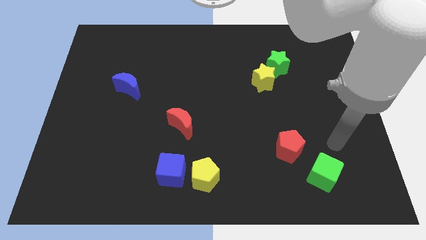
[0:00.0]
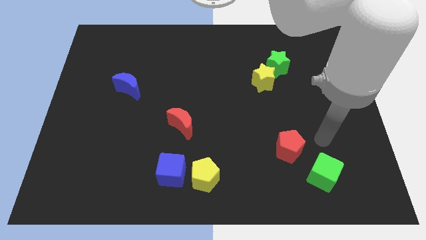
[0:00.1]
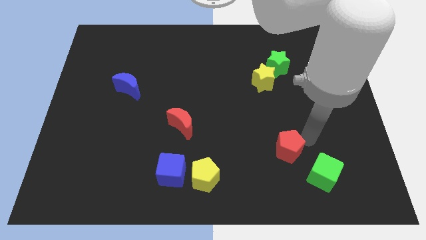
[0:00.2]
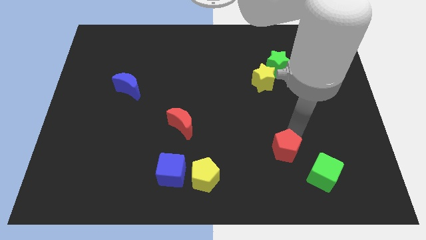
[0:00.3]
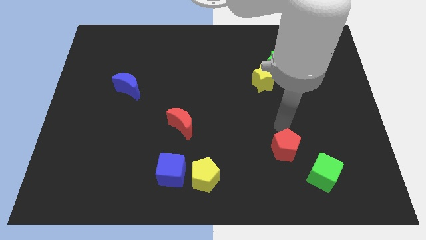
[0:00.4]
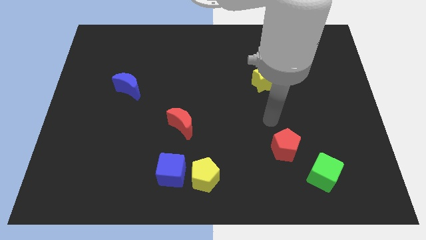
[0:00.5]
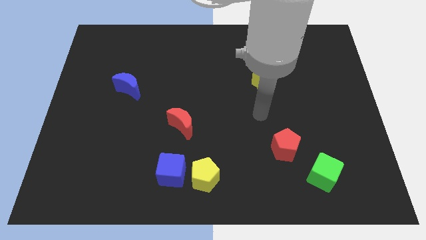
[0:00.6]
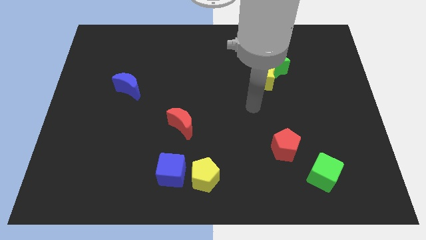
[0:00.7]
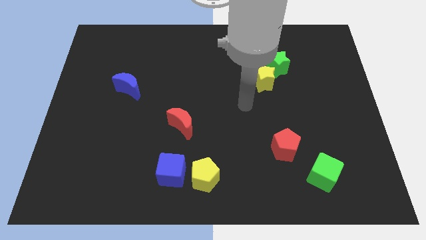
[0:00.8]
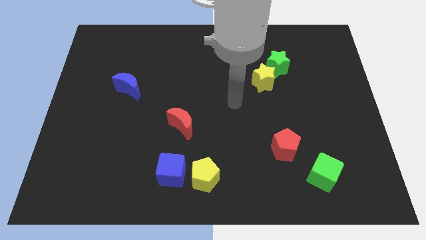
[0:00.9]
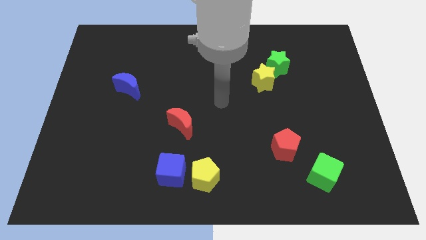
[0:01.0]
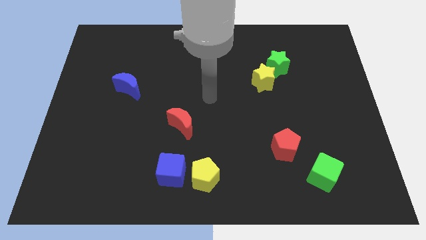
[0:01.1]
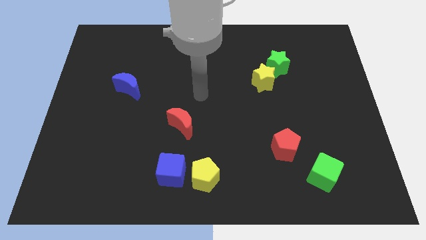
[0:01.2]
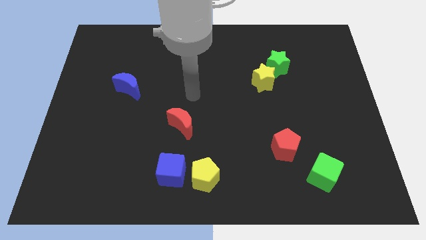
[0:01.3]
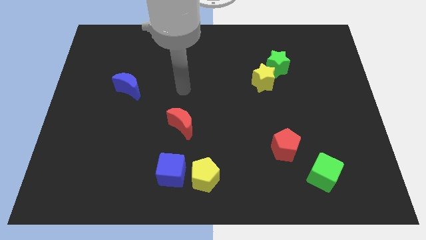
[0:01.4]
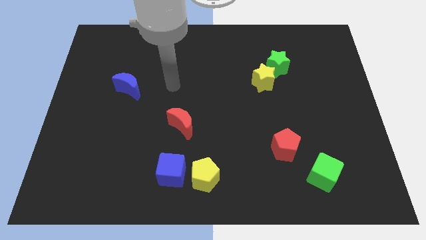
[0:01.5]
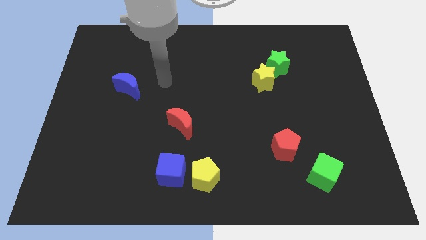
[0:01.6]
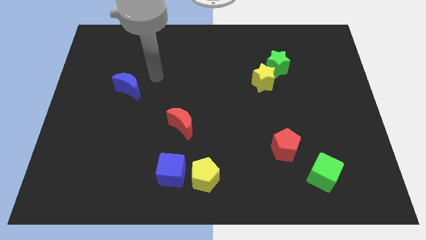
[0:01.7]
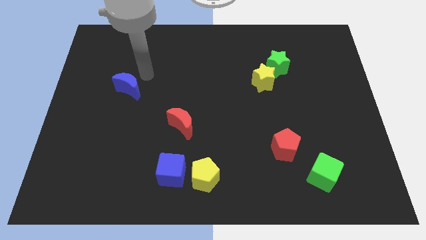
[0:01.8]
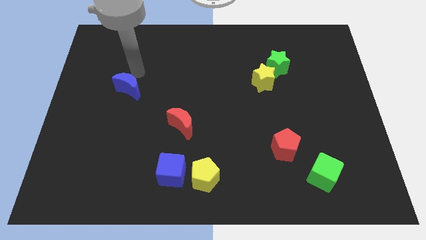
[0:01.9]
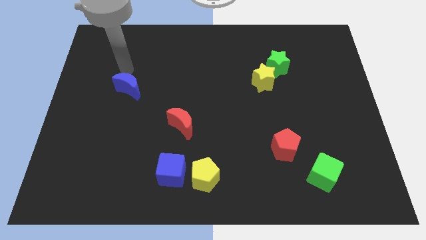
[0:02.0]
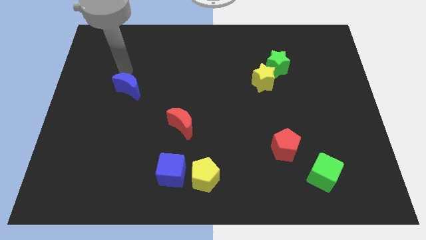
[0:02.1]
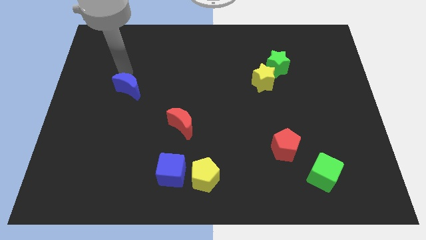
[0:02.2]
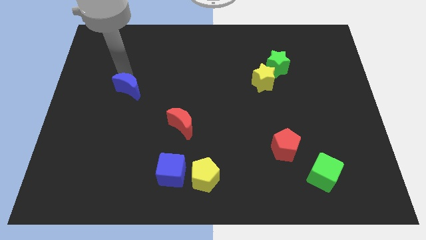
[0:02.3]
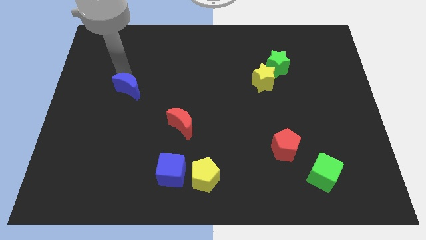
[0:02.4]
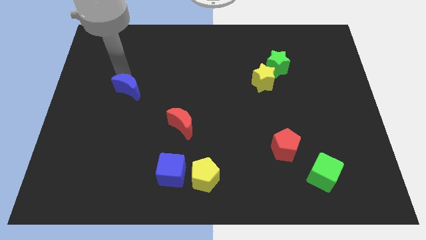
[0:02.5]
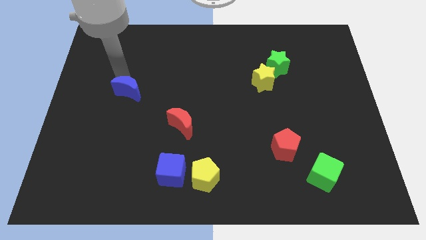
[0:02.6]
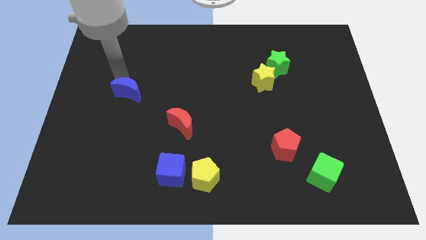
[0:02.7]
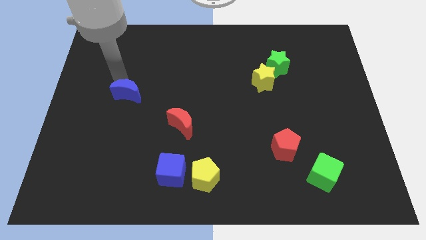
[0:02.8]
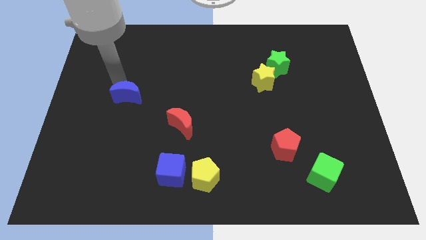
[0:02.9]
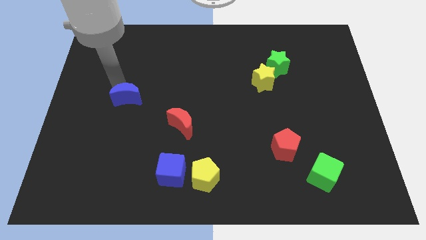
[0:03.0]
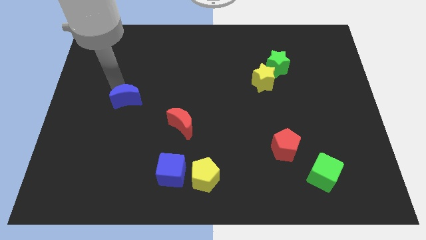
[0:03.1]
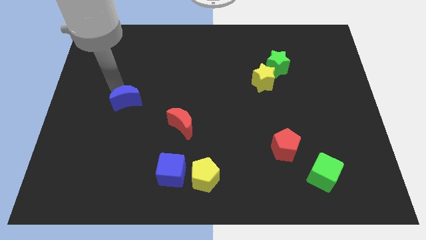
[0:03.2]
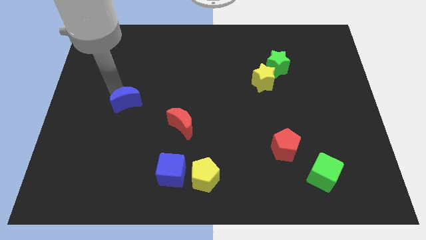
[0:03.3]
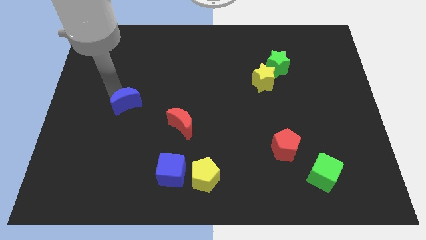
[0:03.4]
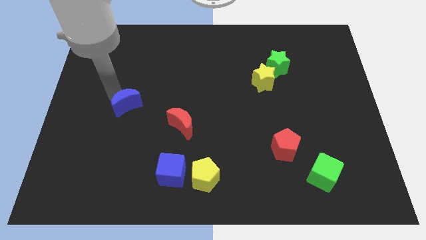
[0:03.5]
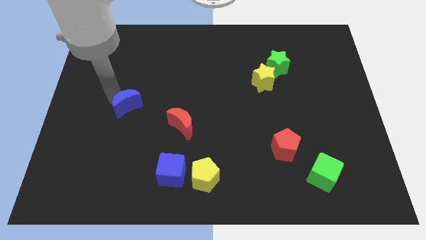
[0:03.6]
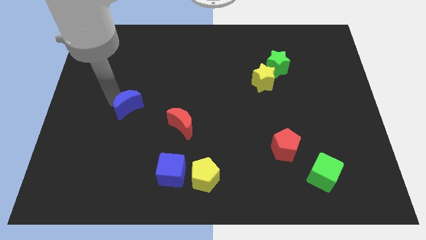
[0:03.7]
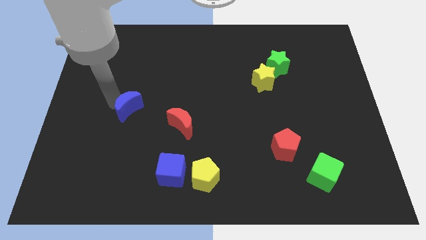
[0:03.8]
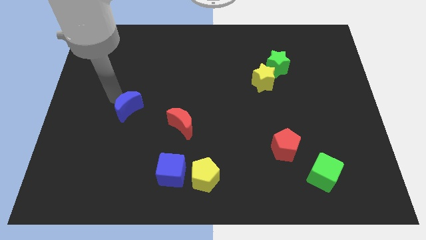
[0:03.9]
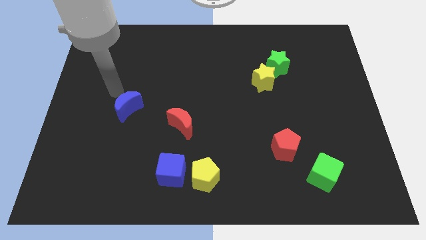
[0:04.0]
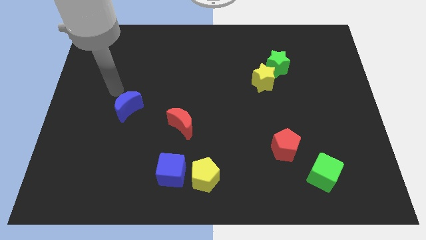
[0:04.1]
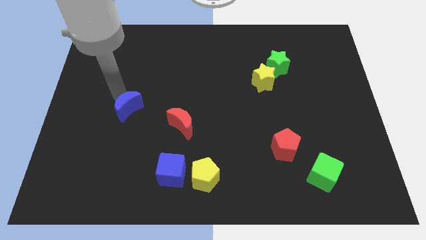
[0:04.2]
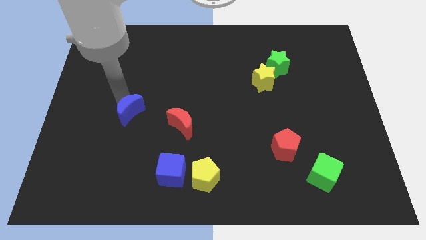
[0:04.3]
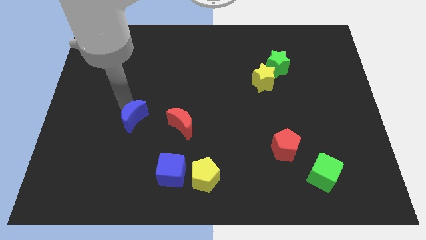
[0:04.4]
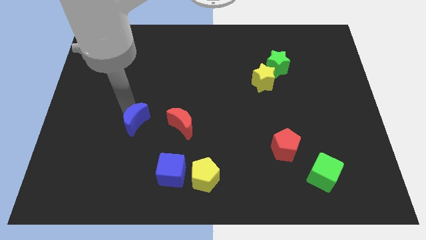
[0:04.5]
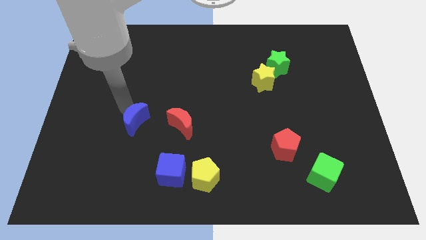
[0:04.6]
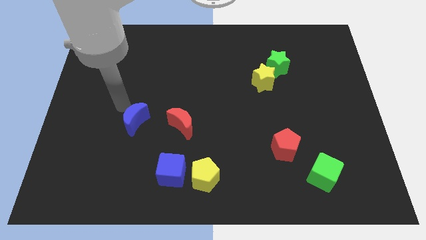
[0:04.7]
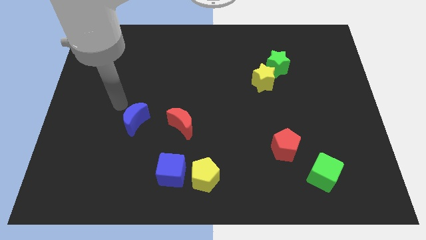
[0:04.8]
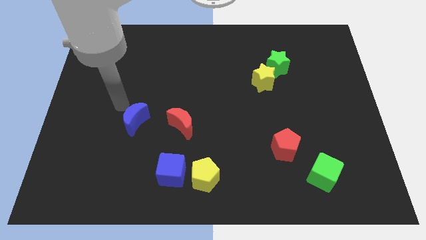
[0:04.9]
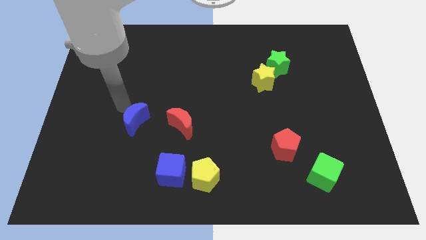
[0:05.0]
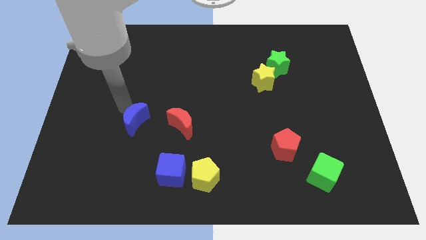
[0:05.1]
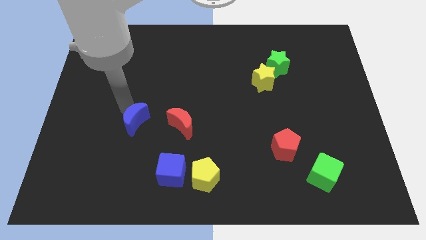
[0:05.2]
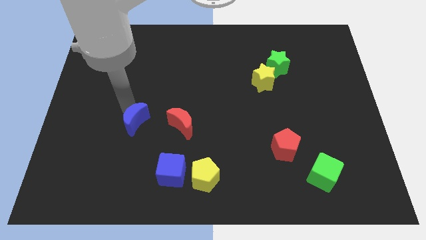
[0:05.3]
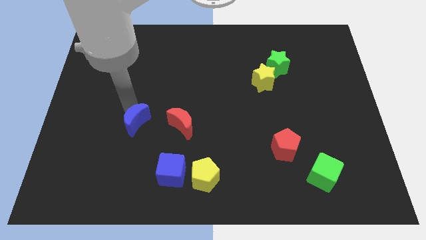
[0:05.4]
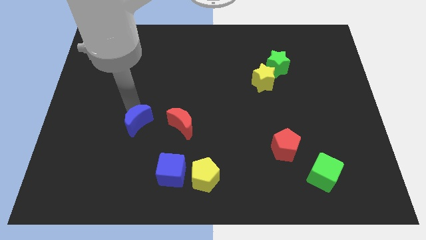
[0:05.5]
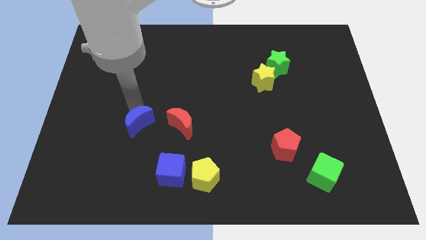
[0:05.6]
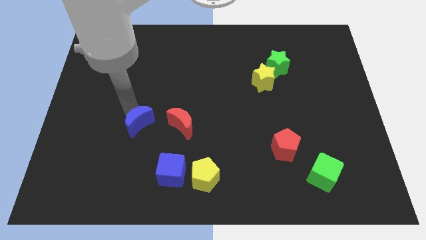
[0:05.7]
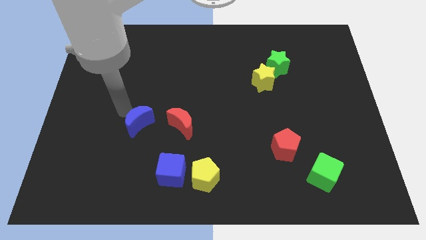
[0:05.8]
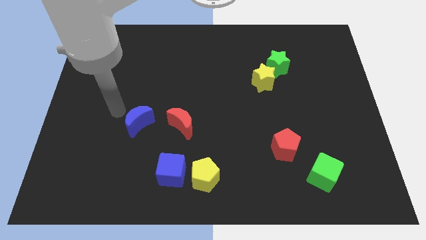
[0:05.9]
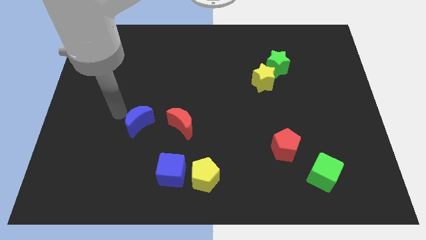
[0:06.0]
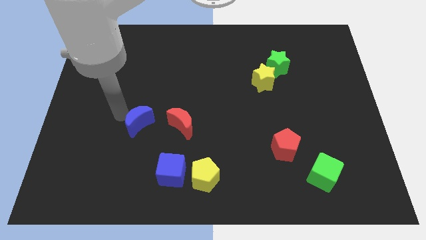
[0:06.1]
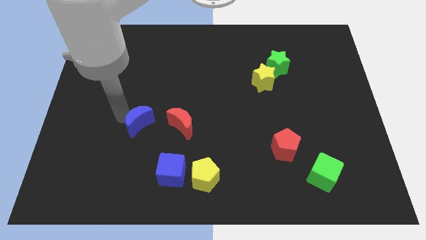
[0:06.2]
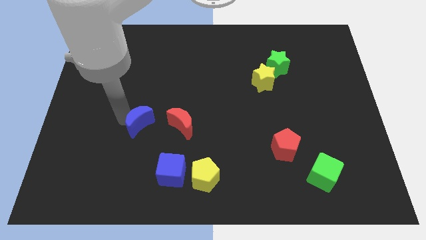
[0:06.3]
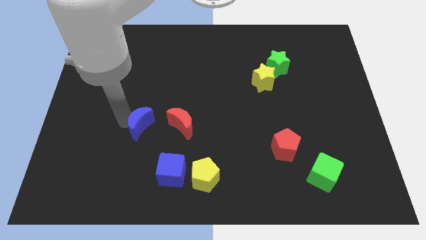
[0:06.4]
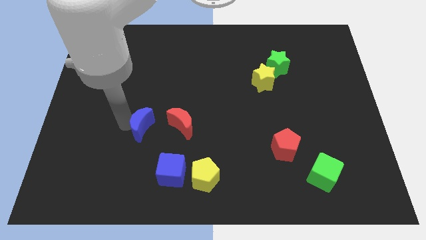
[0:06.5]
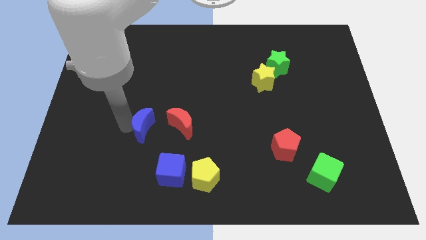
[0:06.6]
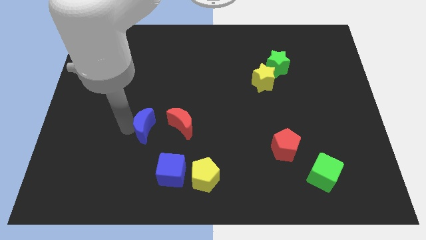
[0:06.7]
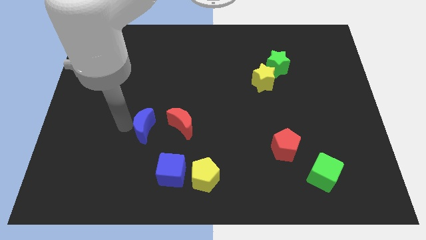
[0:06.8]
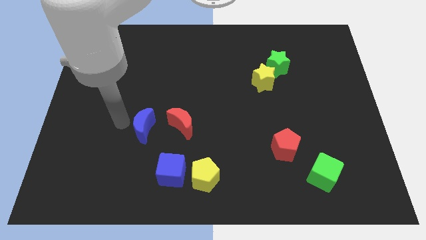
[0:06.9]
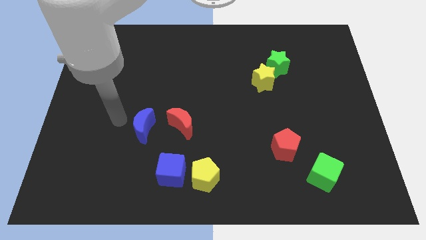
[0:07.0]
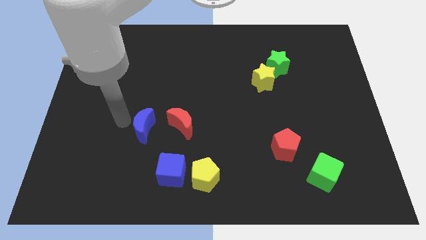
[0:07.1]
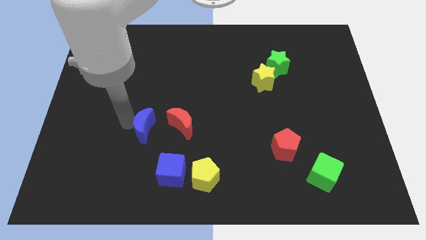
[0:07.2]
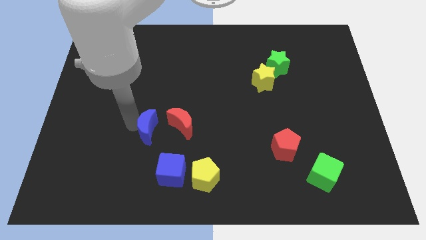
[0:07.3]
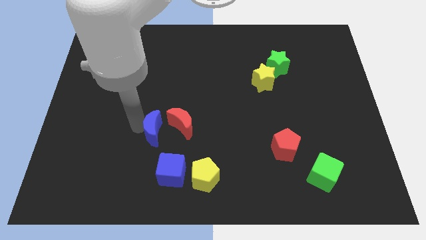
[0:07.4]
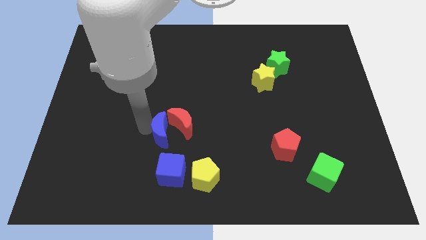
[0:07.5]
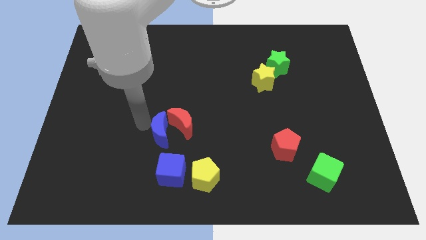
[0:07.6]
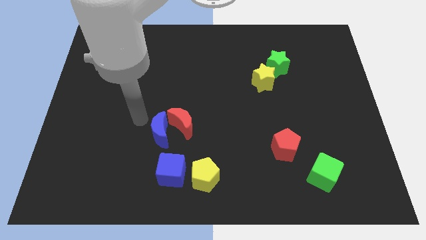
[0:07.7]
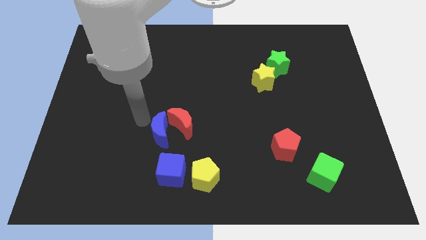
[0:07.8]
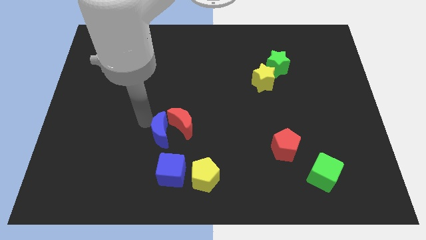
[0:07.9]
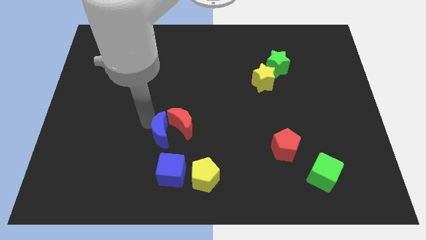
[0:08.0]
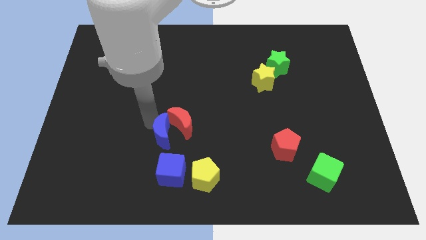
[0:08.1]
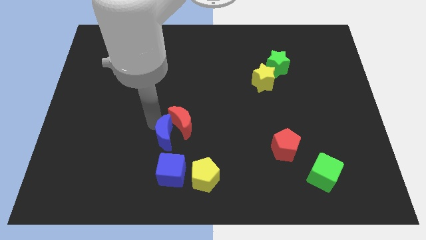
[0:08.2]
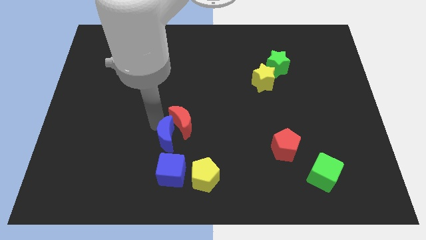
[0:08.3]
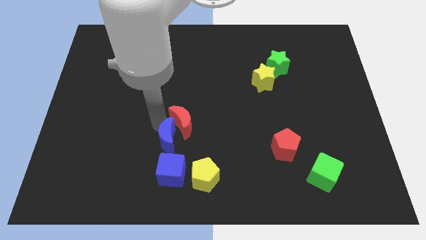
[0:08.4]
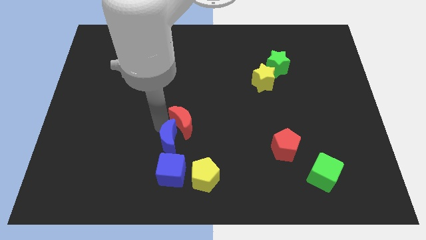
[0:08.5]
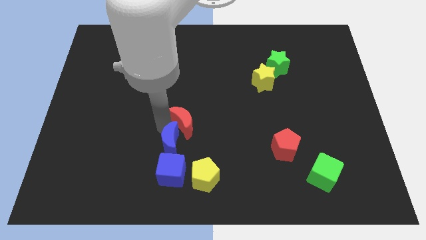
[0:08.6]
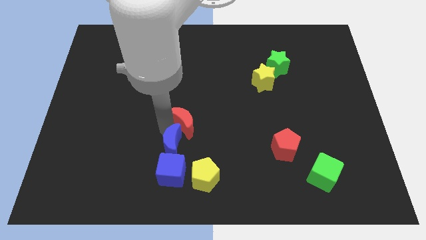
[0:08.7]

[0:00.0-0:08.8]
push the blue moon diagonally up and to the right of the blue cube
